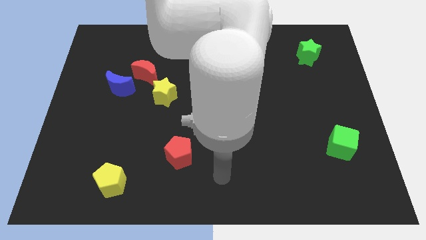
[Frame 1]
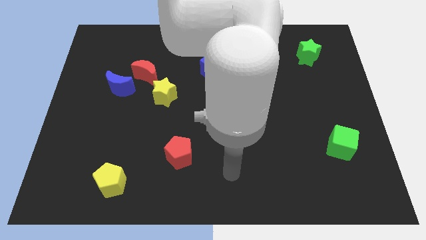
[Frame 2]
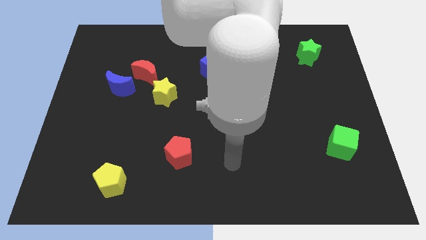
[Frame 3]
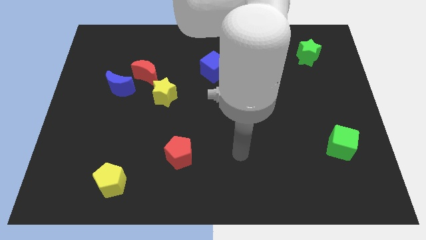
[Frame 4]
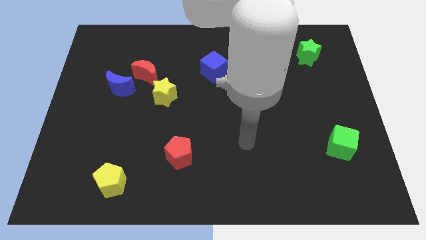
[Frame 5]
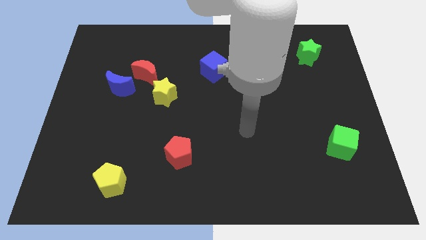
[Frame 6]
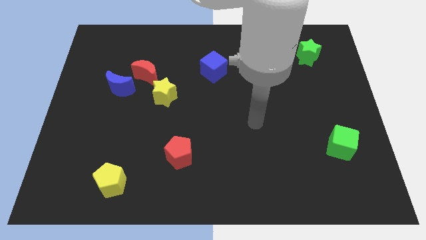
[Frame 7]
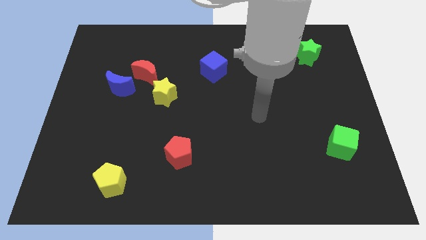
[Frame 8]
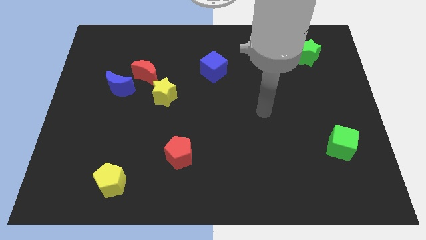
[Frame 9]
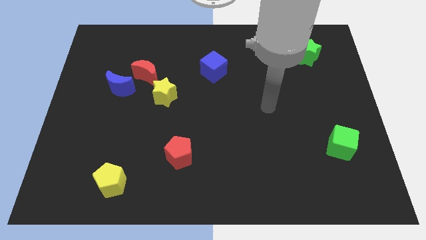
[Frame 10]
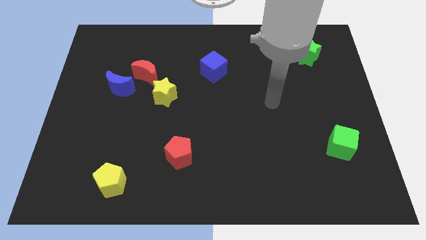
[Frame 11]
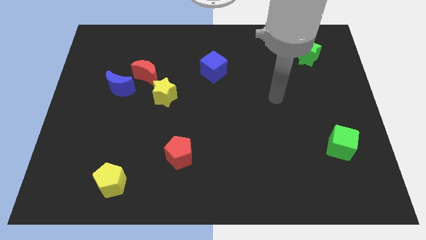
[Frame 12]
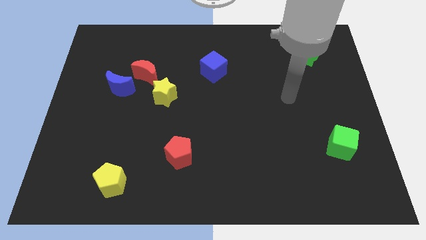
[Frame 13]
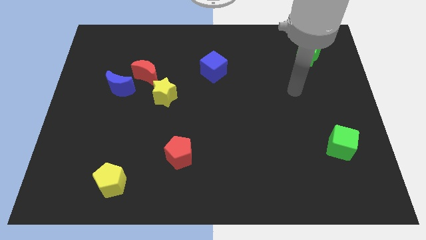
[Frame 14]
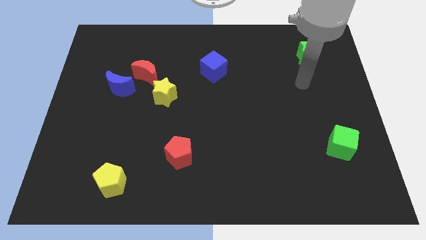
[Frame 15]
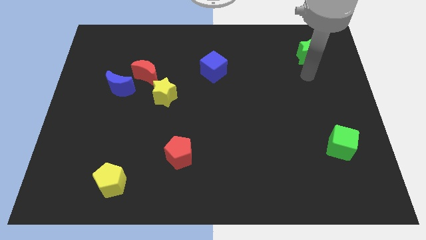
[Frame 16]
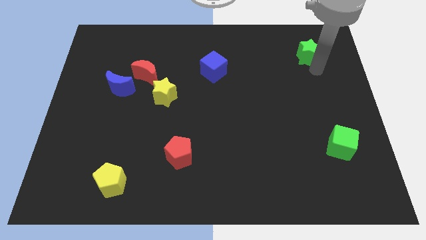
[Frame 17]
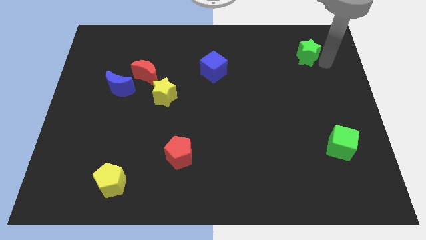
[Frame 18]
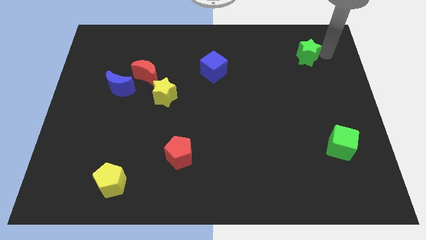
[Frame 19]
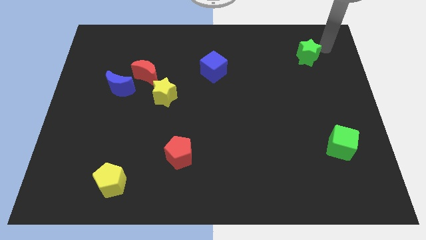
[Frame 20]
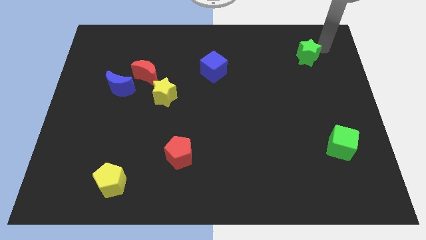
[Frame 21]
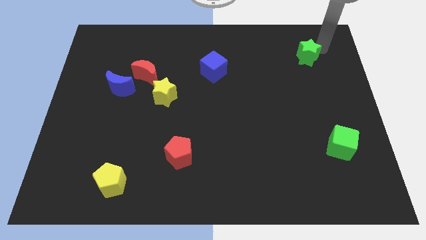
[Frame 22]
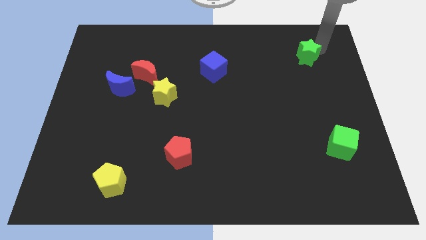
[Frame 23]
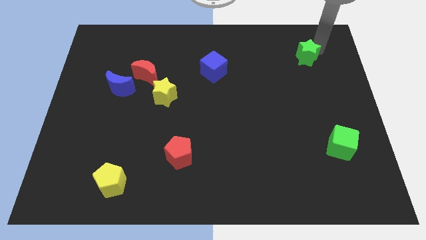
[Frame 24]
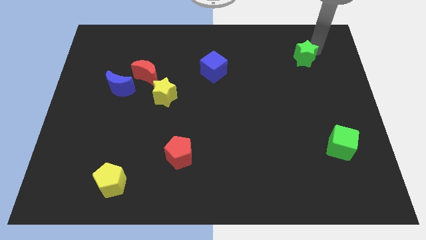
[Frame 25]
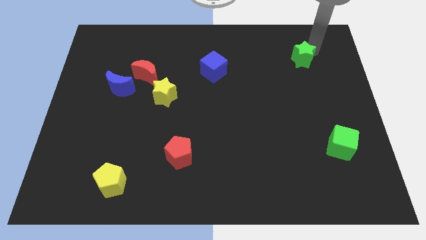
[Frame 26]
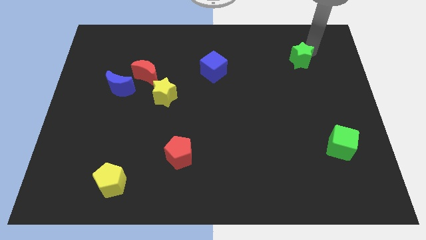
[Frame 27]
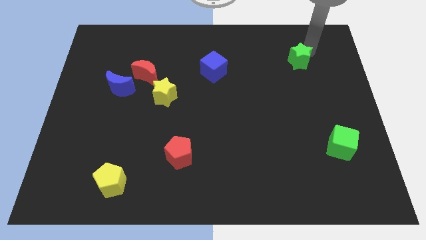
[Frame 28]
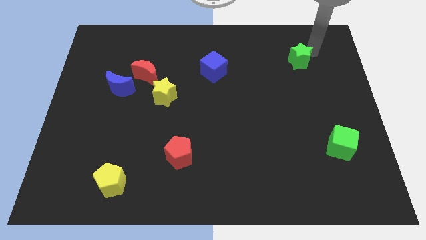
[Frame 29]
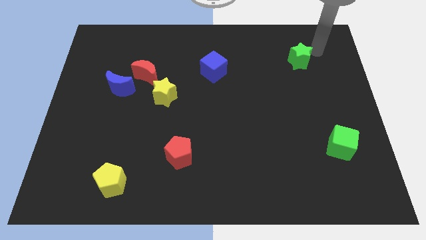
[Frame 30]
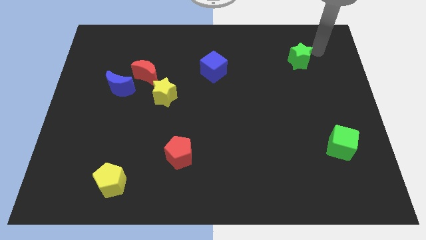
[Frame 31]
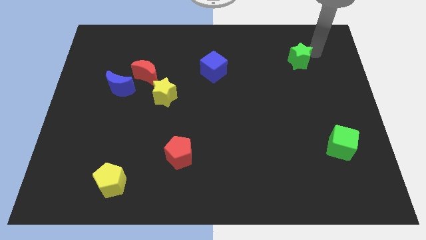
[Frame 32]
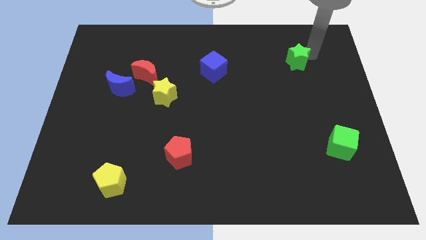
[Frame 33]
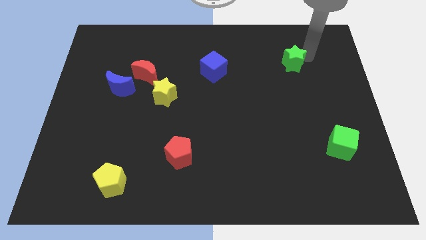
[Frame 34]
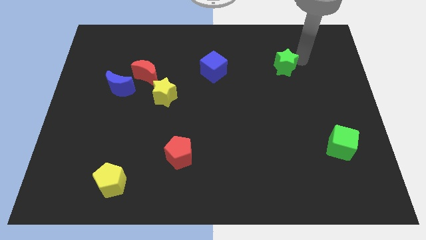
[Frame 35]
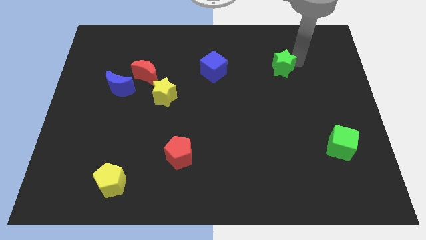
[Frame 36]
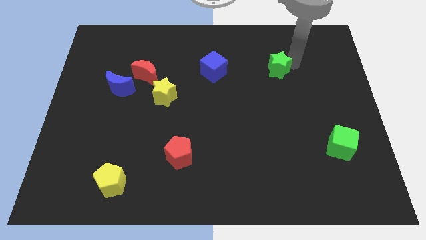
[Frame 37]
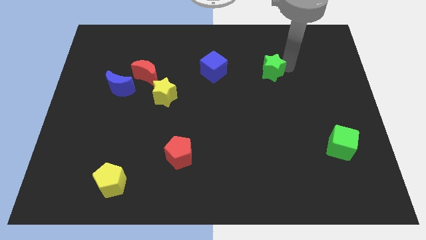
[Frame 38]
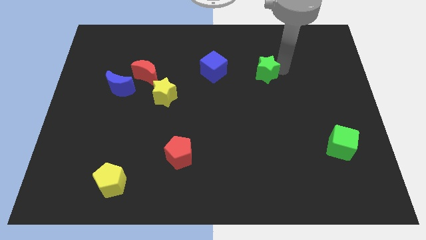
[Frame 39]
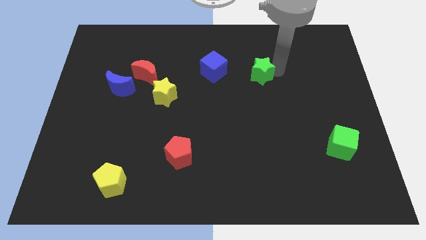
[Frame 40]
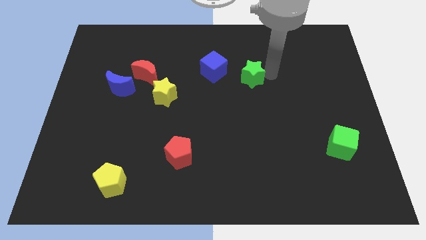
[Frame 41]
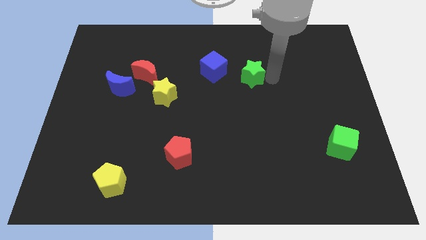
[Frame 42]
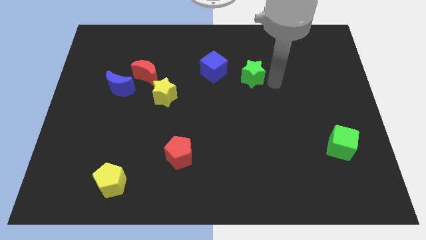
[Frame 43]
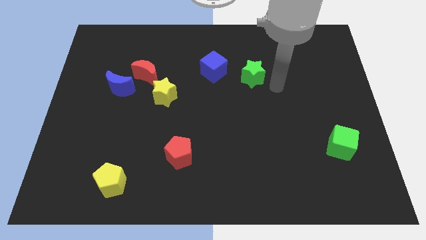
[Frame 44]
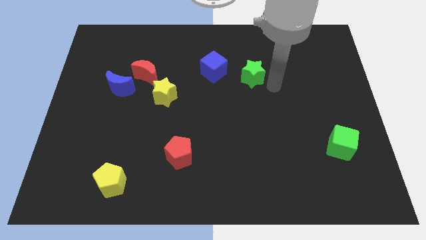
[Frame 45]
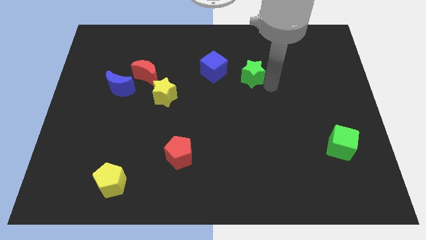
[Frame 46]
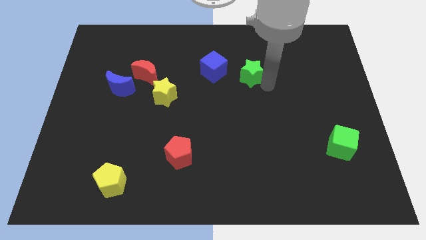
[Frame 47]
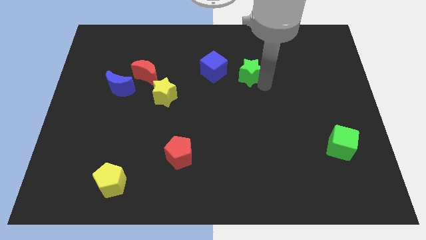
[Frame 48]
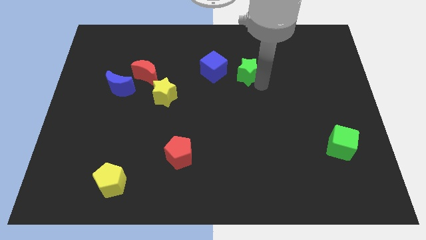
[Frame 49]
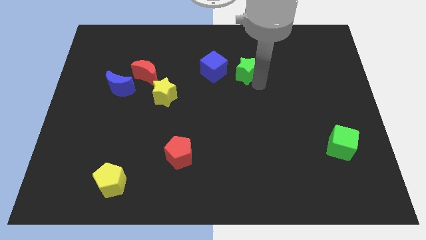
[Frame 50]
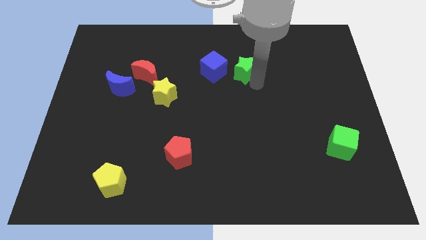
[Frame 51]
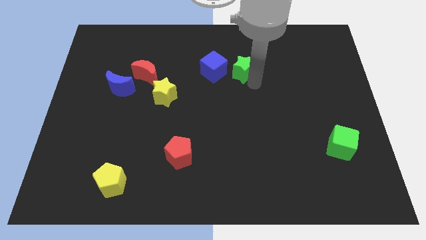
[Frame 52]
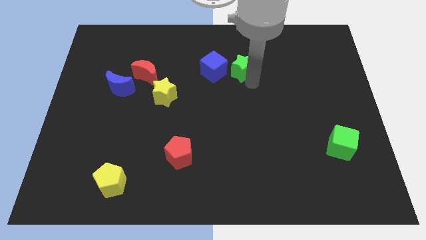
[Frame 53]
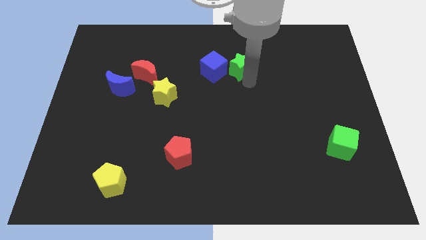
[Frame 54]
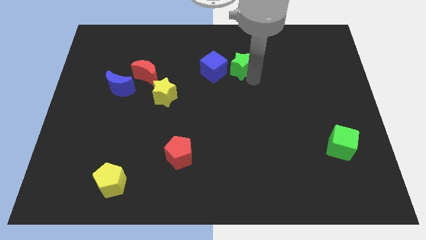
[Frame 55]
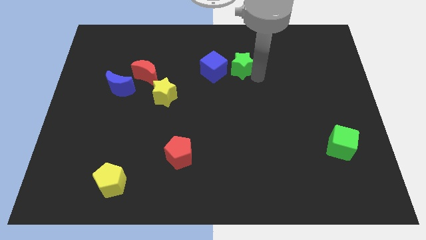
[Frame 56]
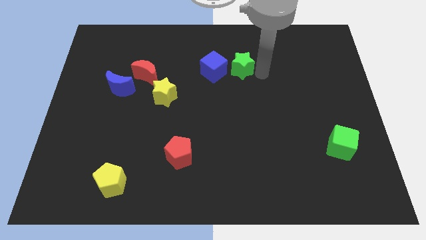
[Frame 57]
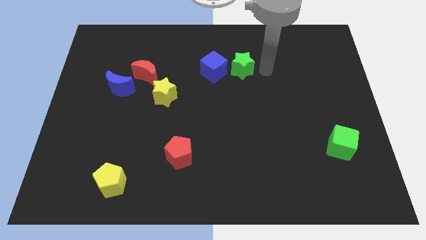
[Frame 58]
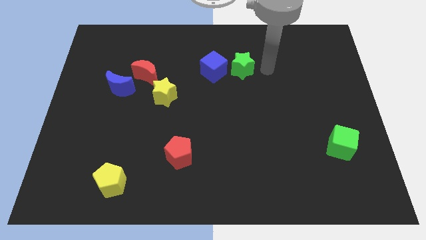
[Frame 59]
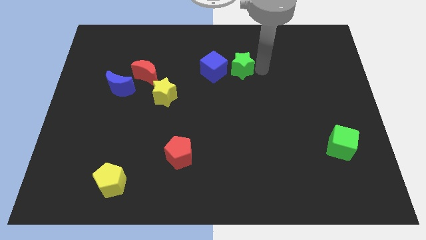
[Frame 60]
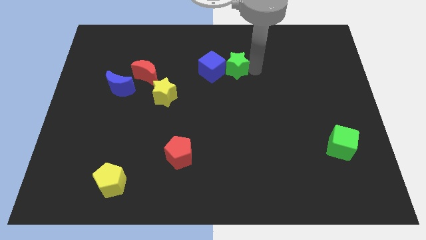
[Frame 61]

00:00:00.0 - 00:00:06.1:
put the green star next to the blue cube
